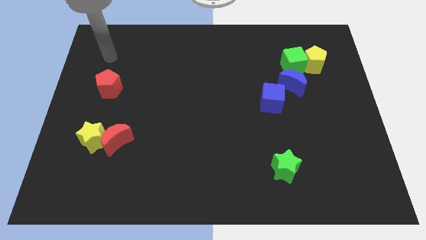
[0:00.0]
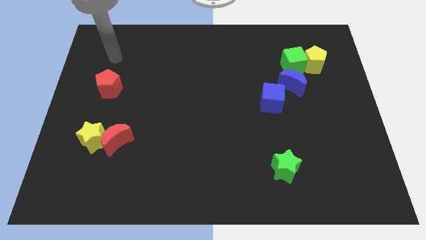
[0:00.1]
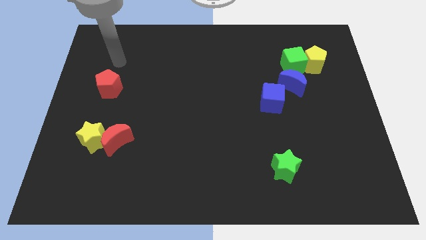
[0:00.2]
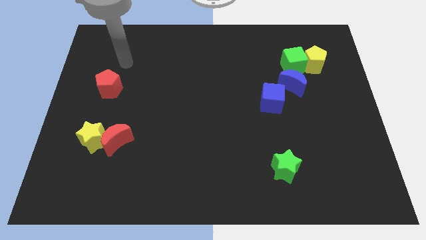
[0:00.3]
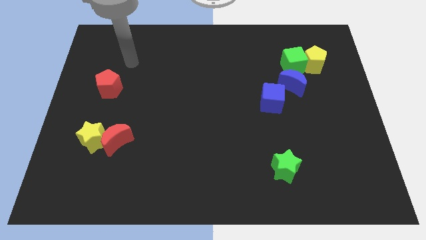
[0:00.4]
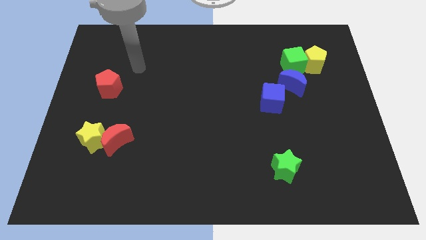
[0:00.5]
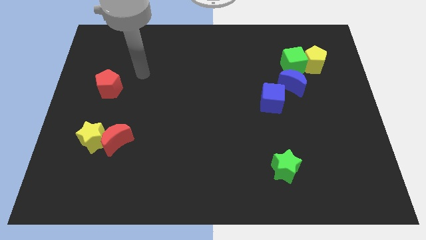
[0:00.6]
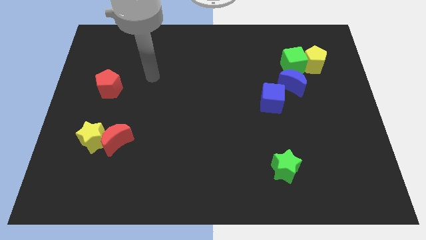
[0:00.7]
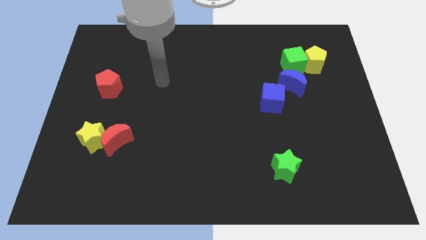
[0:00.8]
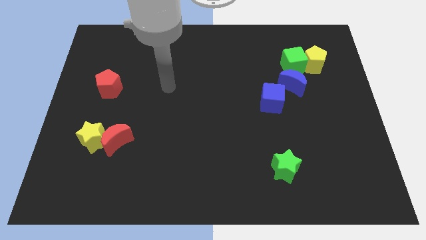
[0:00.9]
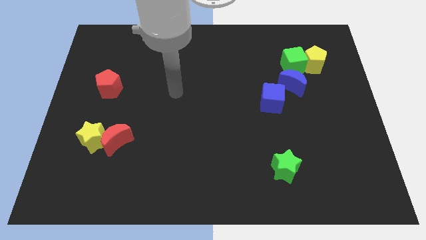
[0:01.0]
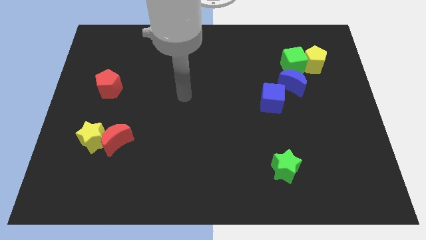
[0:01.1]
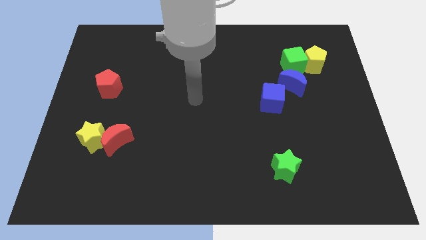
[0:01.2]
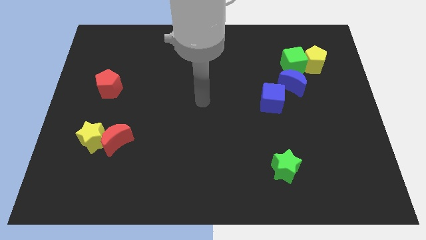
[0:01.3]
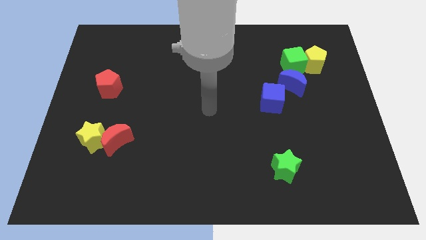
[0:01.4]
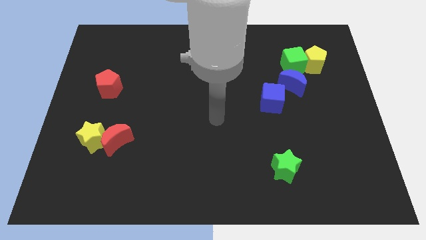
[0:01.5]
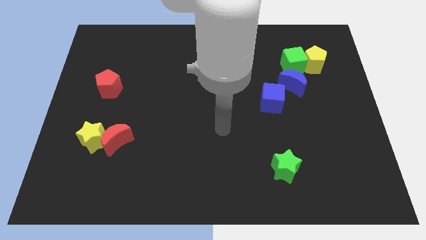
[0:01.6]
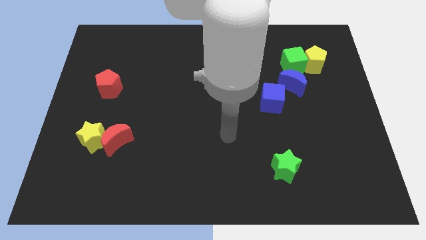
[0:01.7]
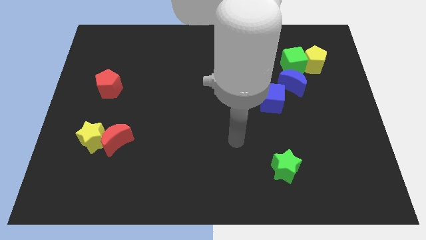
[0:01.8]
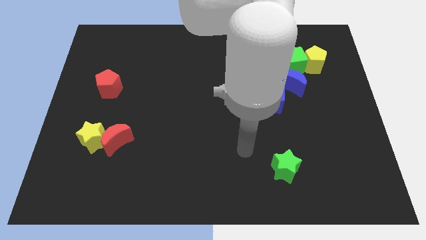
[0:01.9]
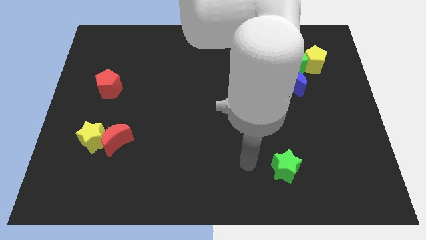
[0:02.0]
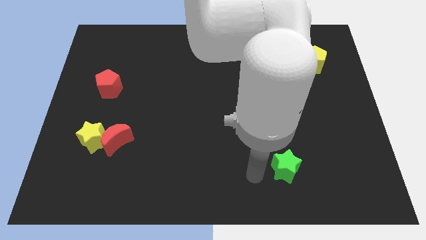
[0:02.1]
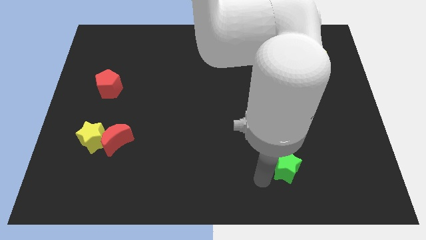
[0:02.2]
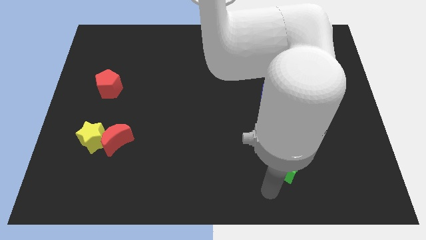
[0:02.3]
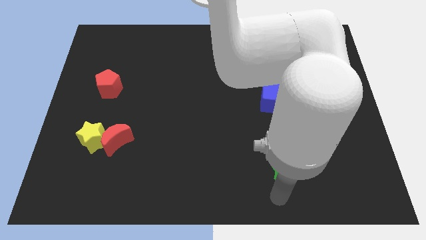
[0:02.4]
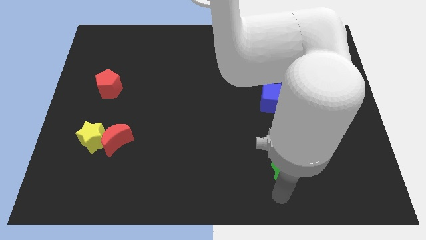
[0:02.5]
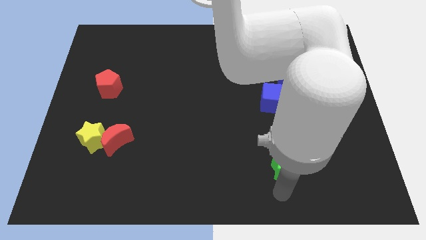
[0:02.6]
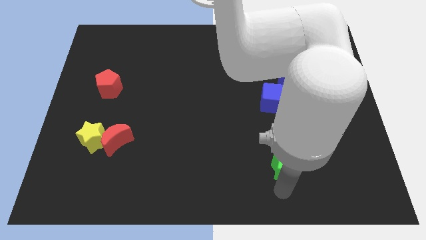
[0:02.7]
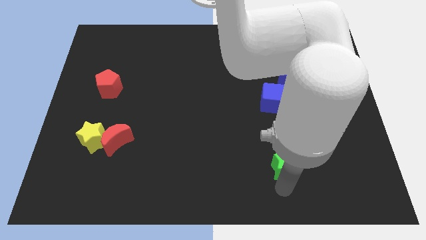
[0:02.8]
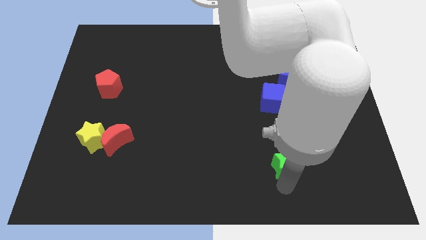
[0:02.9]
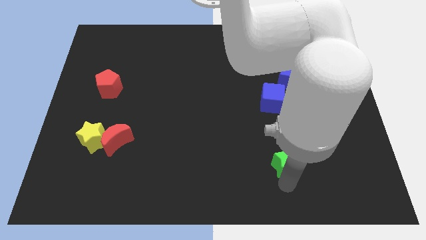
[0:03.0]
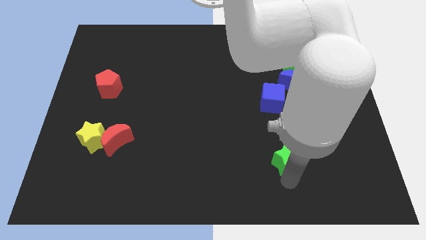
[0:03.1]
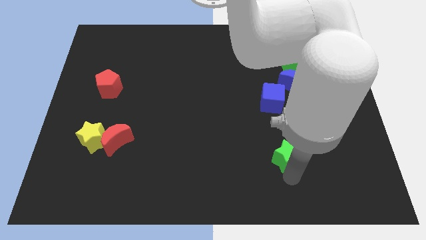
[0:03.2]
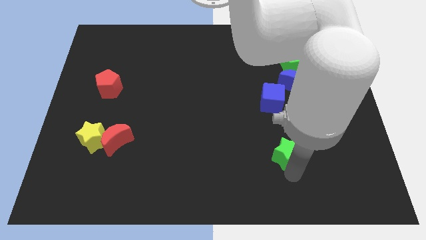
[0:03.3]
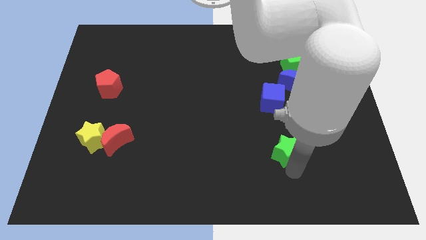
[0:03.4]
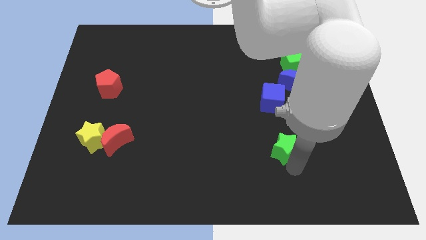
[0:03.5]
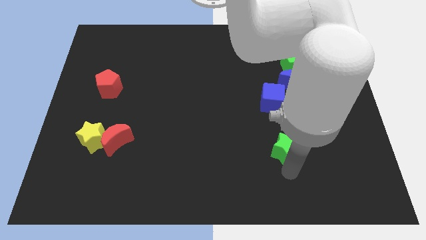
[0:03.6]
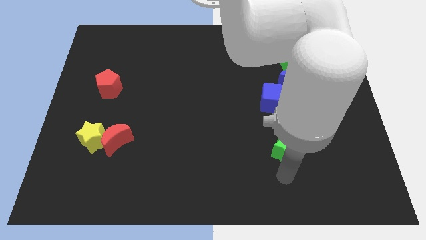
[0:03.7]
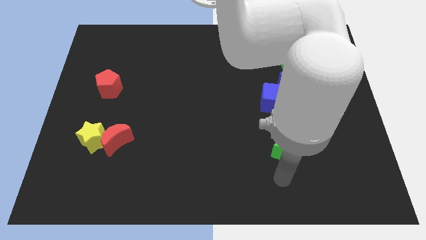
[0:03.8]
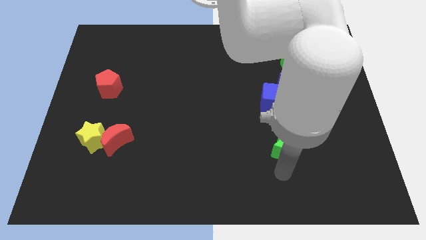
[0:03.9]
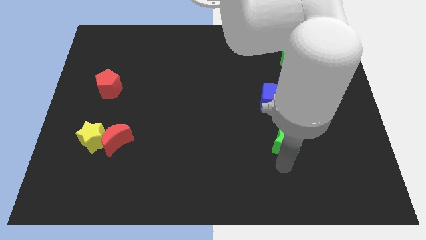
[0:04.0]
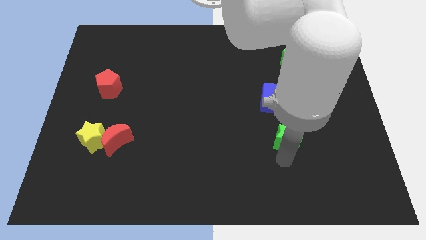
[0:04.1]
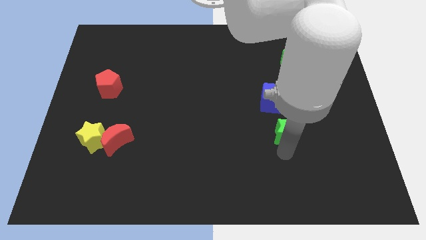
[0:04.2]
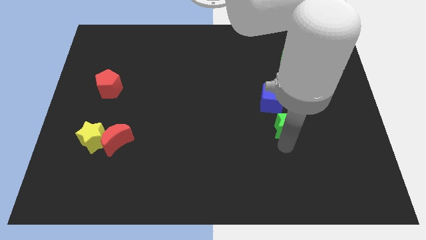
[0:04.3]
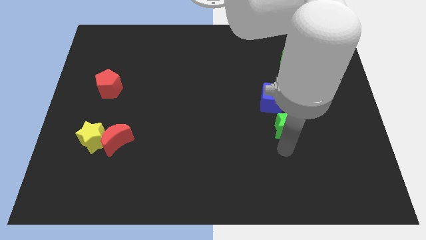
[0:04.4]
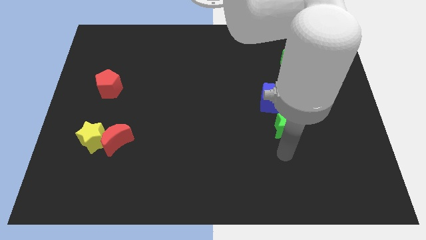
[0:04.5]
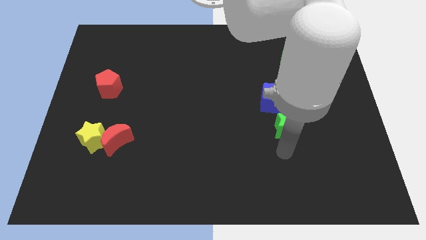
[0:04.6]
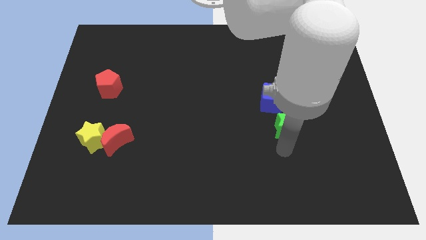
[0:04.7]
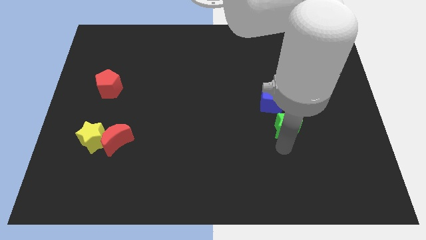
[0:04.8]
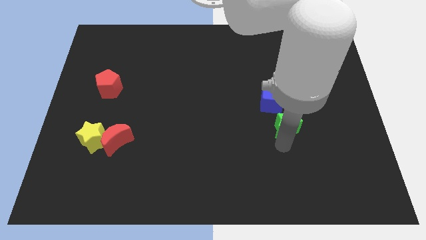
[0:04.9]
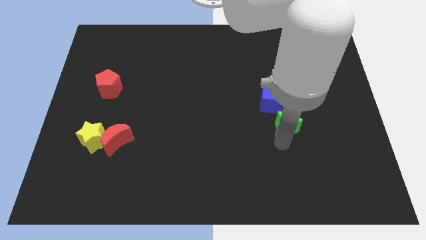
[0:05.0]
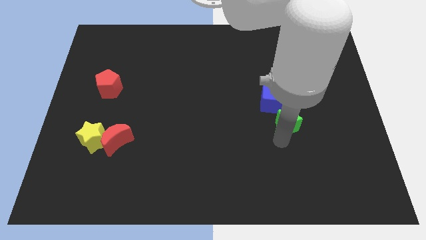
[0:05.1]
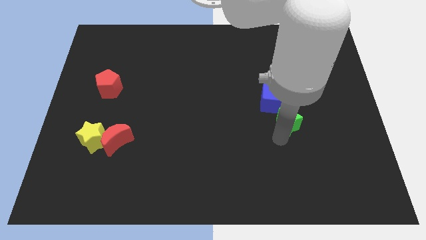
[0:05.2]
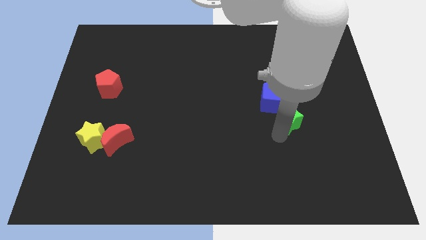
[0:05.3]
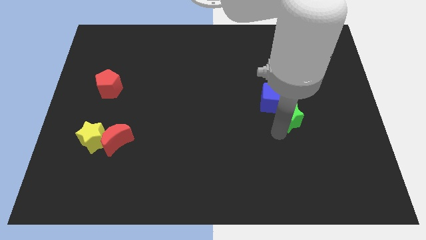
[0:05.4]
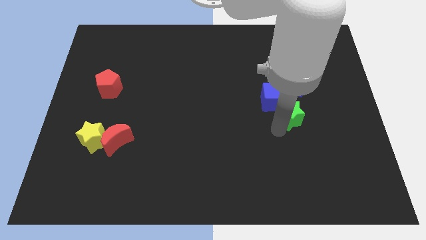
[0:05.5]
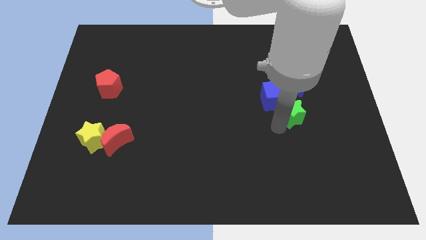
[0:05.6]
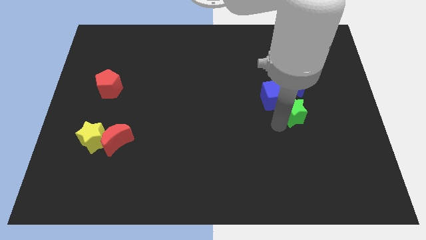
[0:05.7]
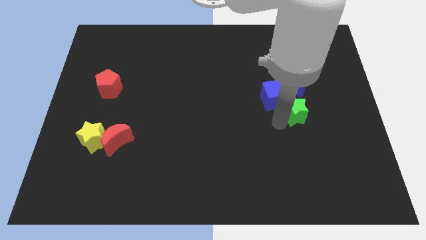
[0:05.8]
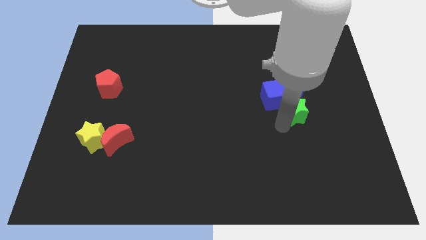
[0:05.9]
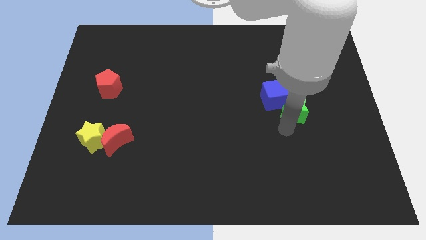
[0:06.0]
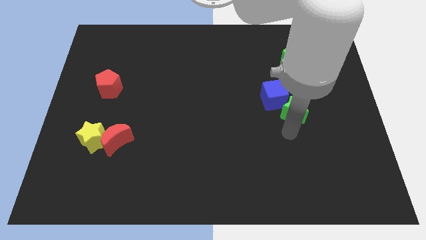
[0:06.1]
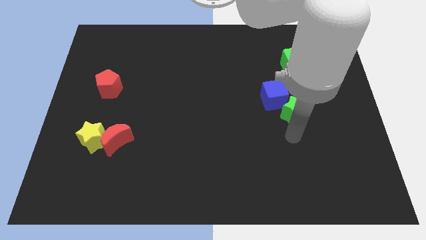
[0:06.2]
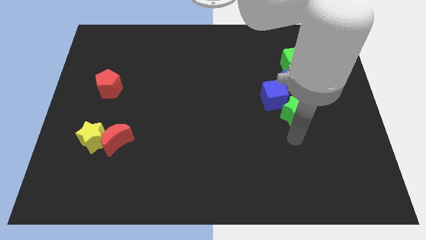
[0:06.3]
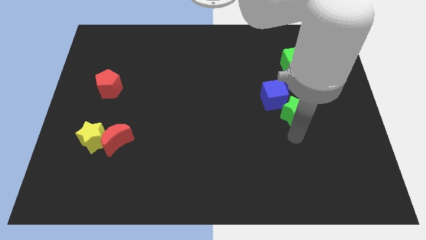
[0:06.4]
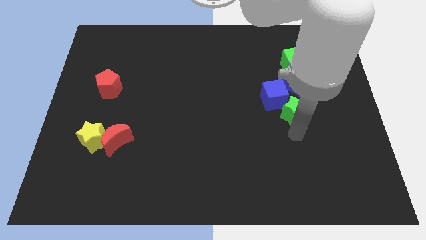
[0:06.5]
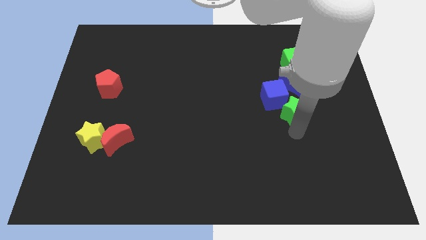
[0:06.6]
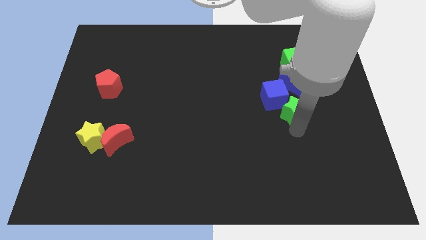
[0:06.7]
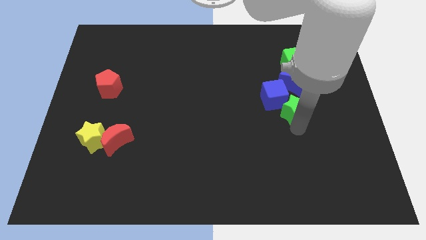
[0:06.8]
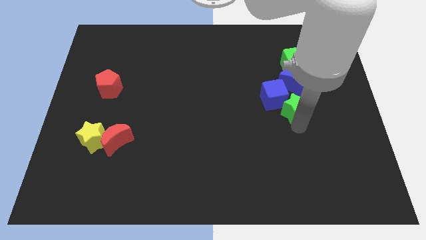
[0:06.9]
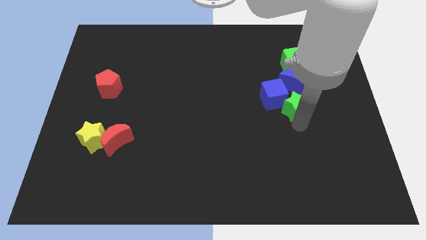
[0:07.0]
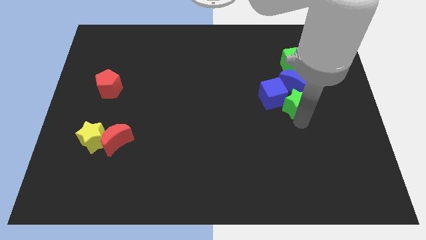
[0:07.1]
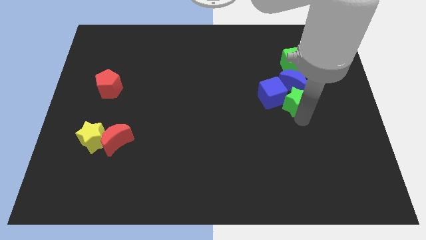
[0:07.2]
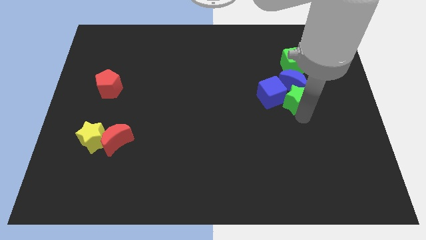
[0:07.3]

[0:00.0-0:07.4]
put the green star next to the blue moon
